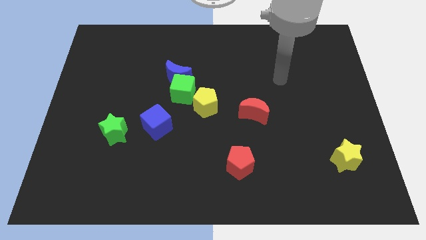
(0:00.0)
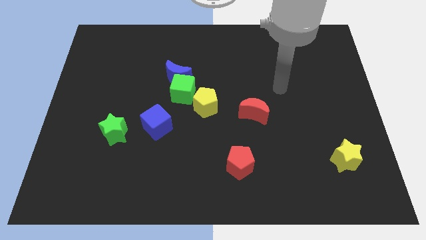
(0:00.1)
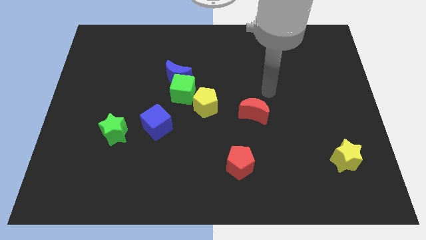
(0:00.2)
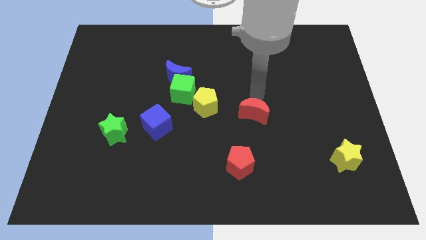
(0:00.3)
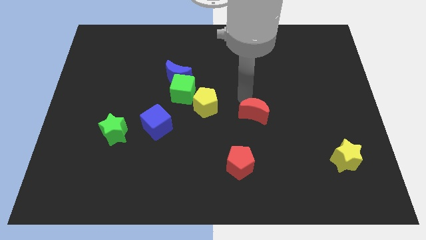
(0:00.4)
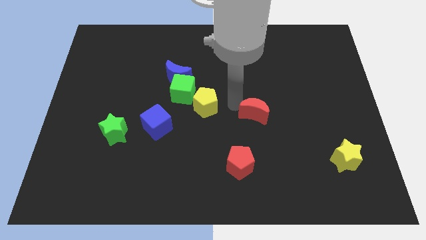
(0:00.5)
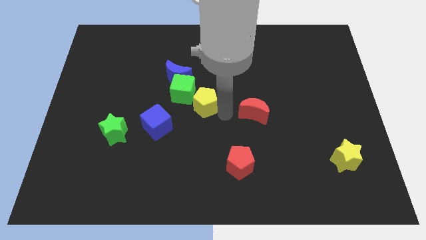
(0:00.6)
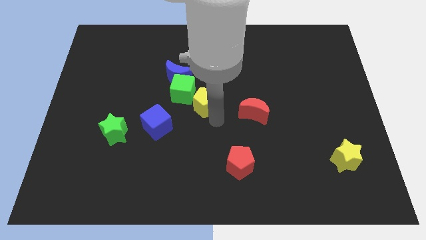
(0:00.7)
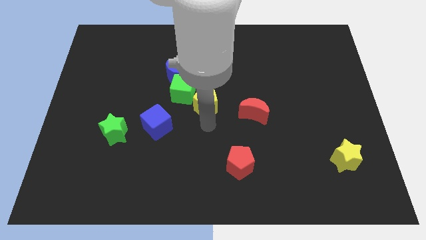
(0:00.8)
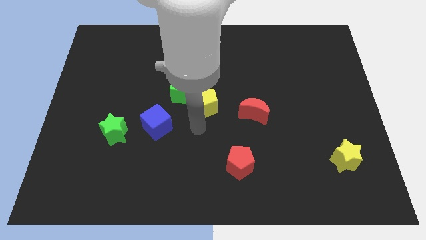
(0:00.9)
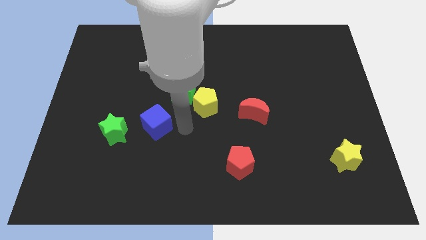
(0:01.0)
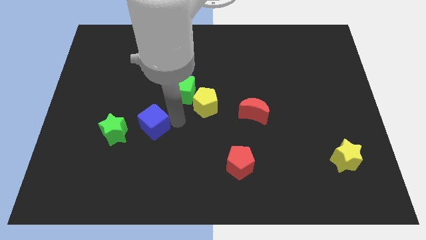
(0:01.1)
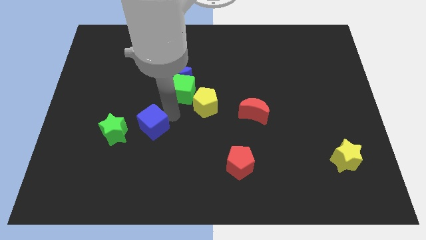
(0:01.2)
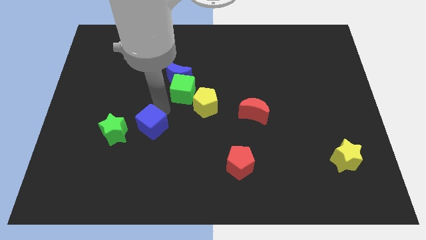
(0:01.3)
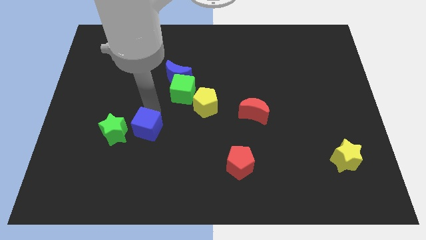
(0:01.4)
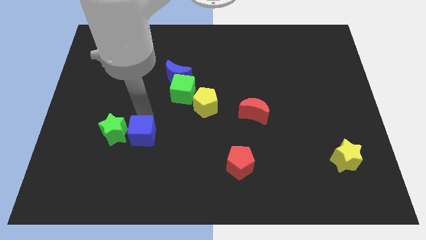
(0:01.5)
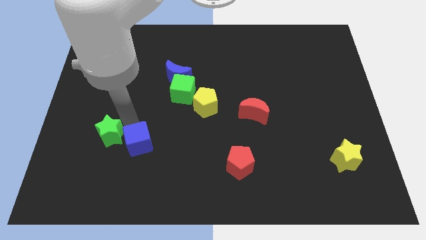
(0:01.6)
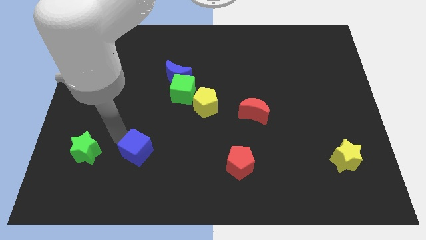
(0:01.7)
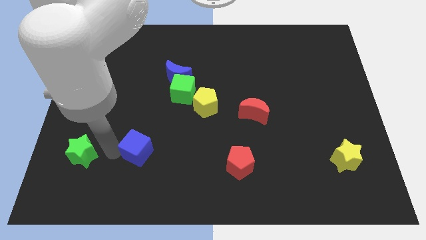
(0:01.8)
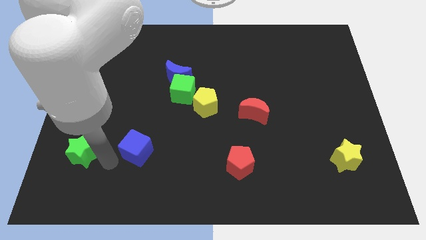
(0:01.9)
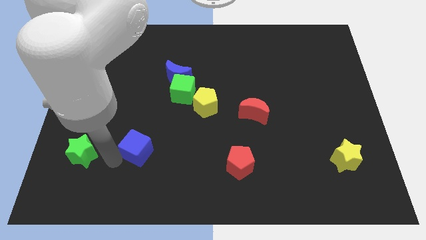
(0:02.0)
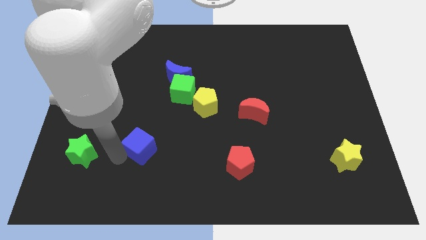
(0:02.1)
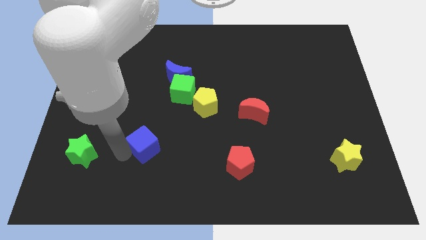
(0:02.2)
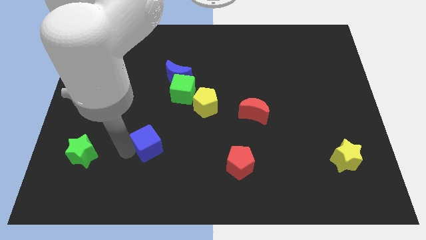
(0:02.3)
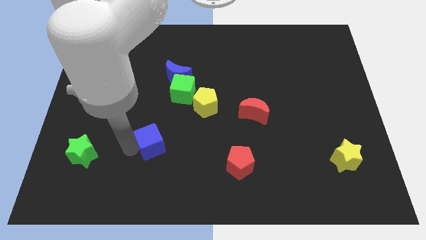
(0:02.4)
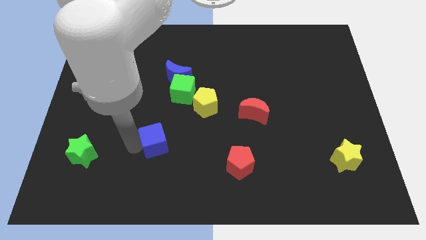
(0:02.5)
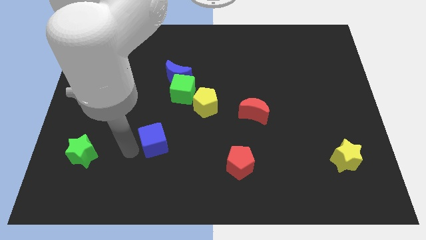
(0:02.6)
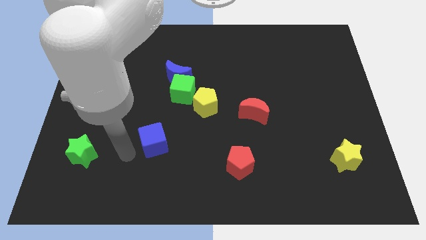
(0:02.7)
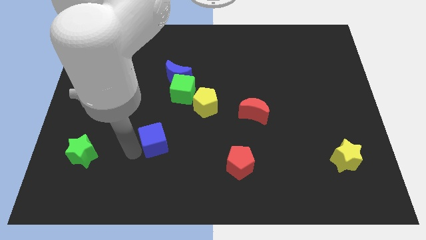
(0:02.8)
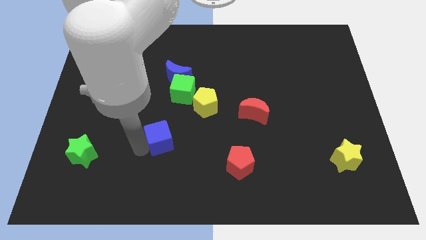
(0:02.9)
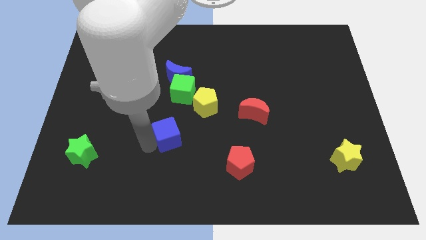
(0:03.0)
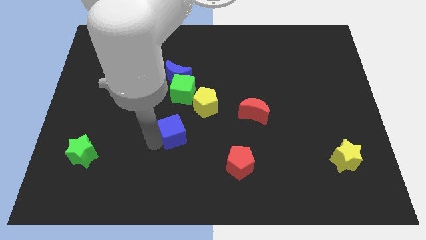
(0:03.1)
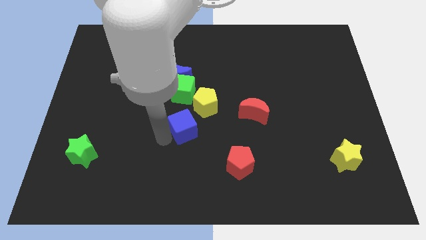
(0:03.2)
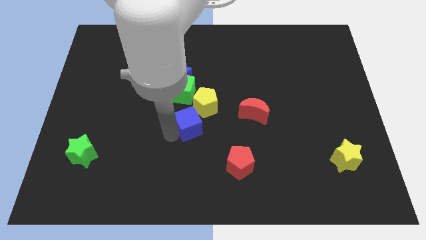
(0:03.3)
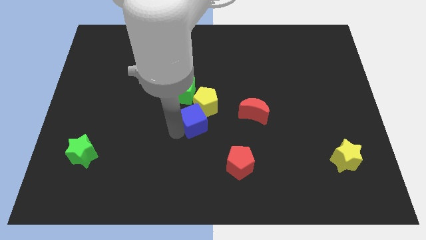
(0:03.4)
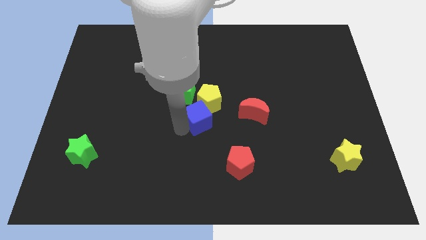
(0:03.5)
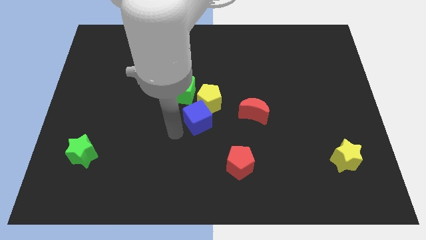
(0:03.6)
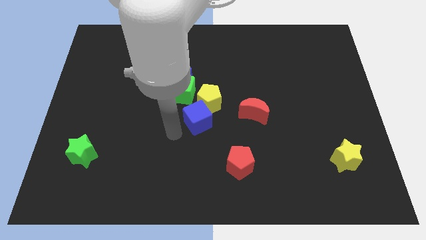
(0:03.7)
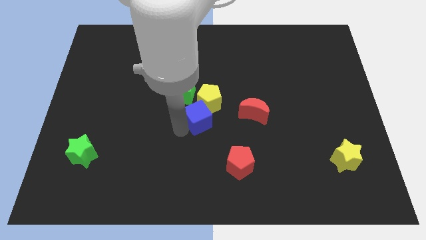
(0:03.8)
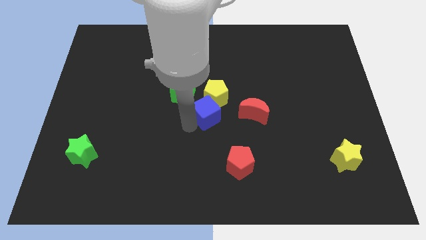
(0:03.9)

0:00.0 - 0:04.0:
slightly push the blue cube upwards and right

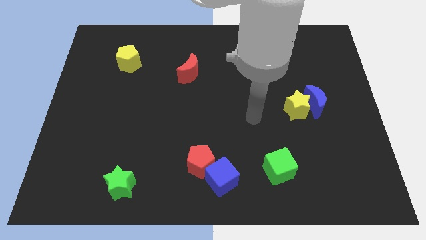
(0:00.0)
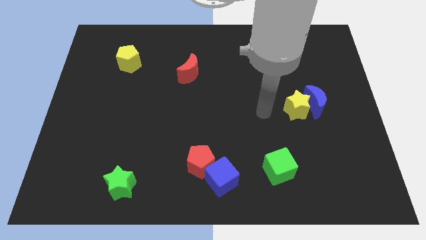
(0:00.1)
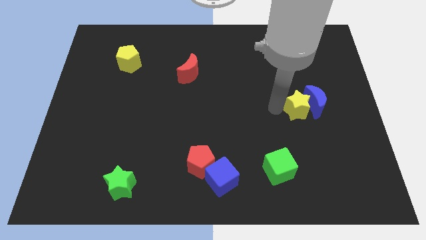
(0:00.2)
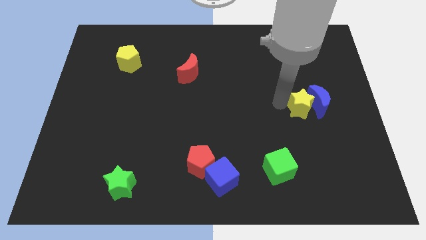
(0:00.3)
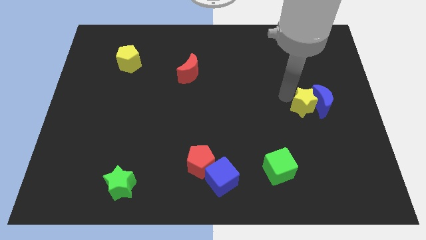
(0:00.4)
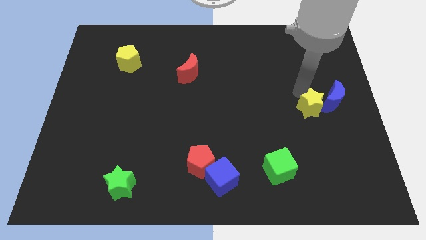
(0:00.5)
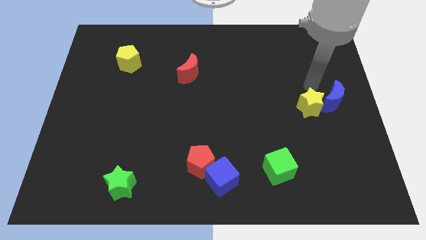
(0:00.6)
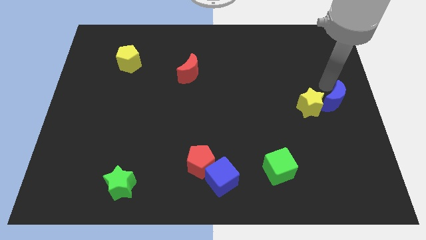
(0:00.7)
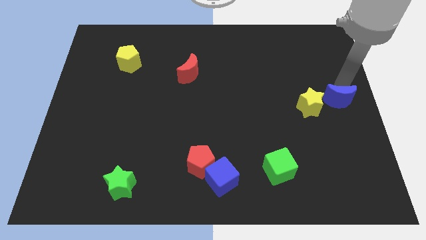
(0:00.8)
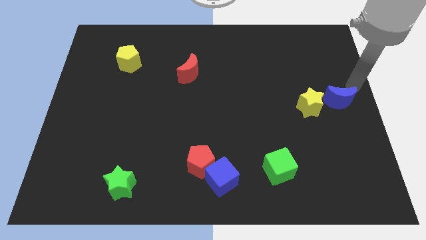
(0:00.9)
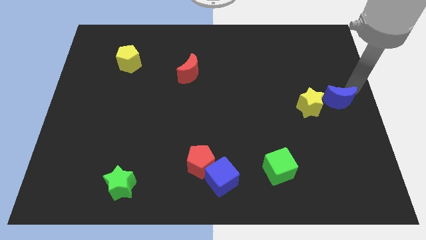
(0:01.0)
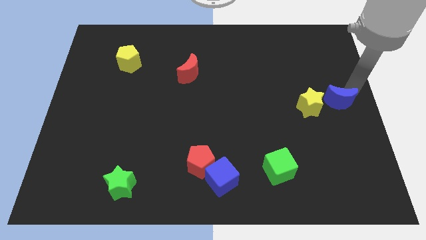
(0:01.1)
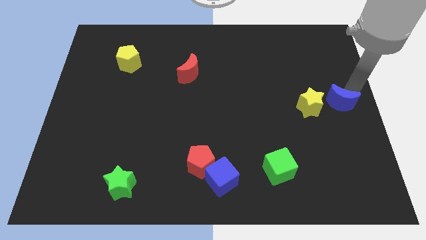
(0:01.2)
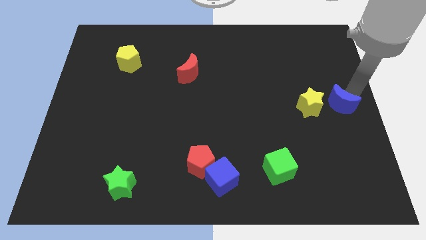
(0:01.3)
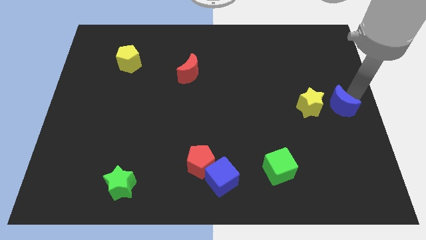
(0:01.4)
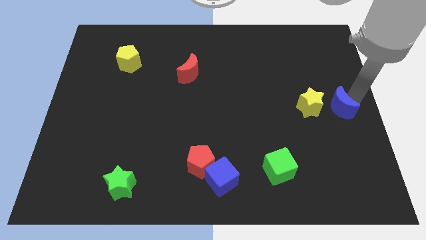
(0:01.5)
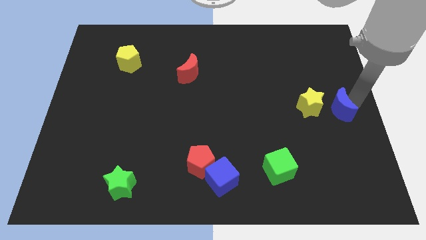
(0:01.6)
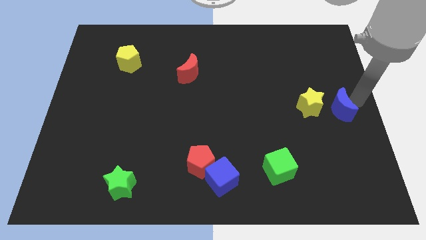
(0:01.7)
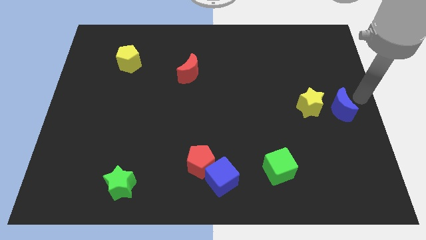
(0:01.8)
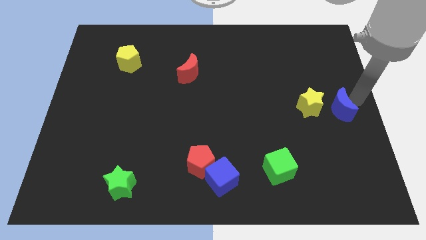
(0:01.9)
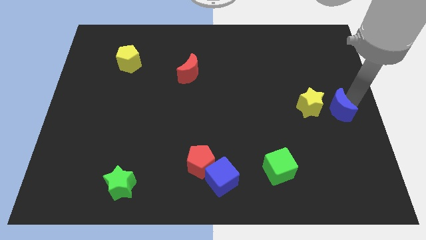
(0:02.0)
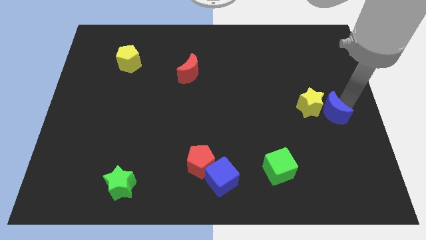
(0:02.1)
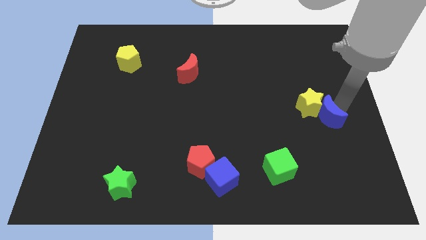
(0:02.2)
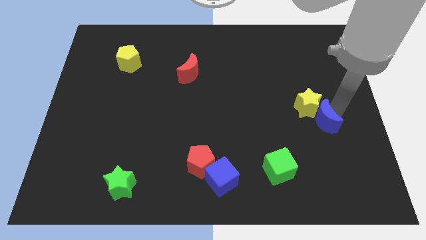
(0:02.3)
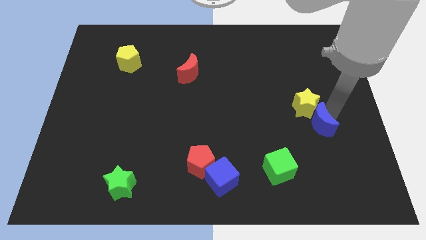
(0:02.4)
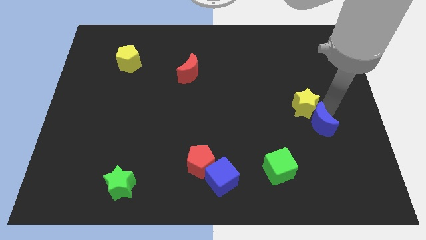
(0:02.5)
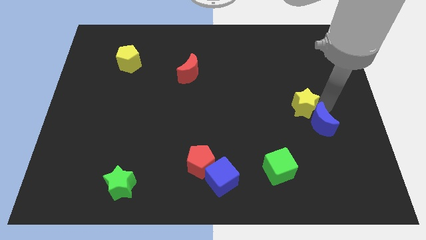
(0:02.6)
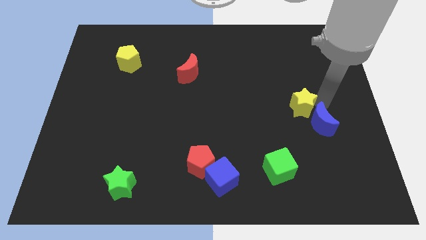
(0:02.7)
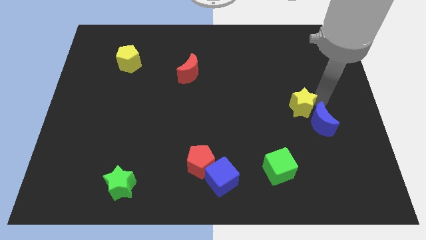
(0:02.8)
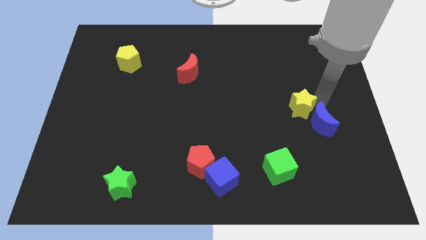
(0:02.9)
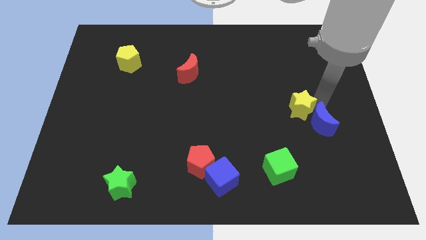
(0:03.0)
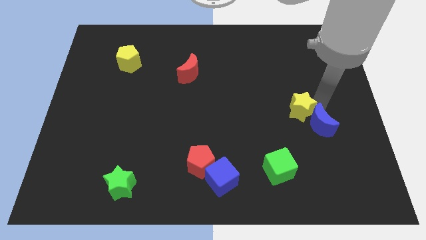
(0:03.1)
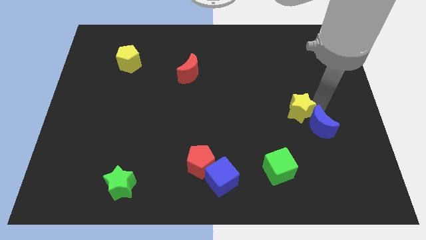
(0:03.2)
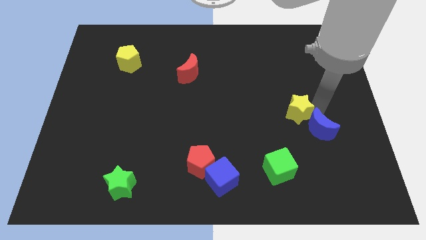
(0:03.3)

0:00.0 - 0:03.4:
move the blue moon down a bit

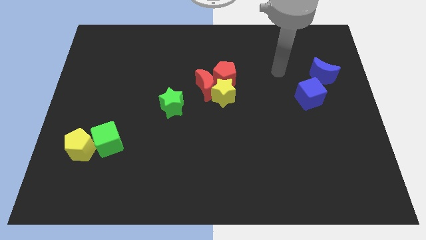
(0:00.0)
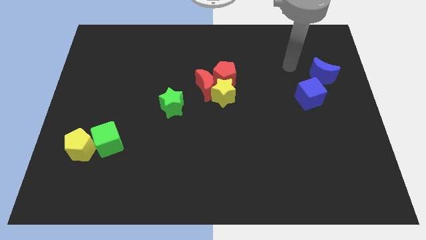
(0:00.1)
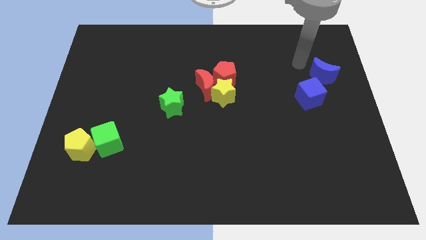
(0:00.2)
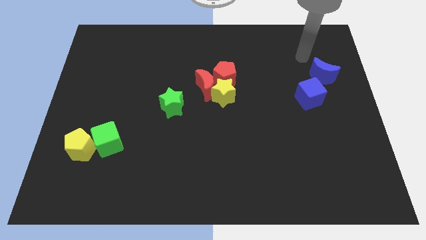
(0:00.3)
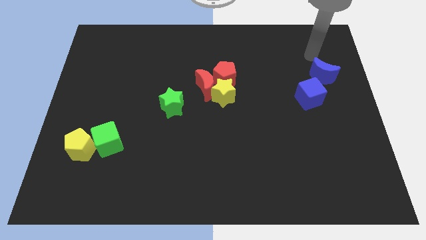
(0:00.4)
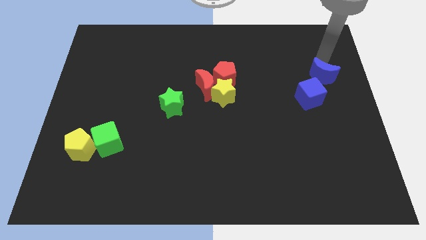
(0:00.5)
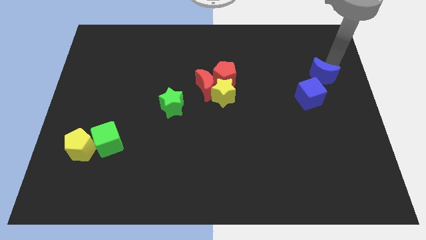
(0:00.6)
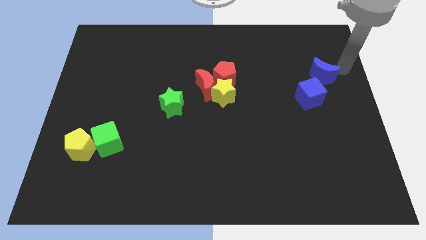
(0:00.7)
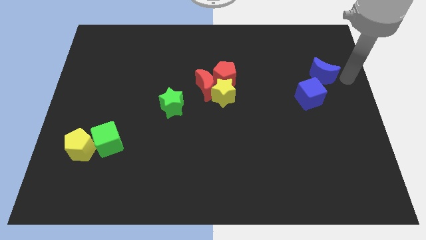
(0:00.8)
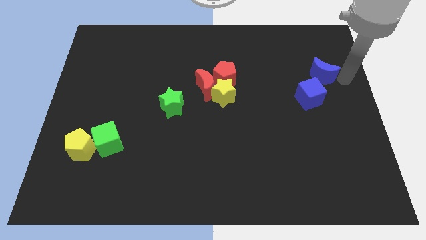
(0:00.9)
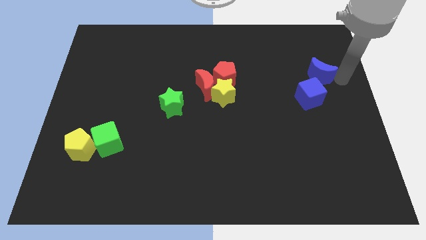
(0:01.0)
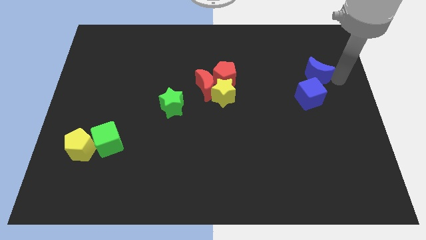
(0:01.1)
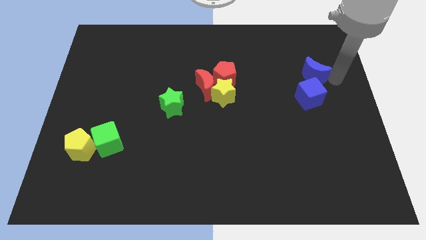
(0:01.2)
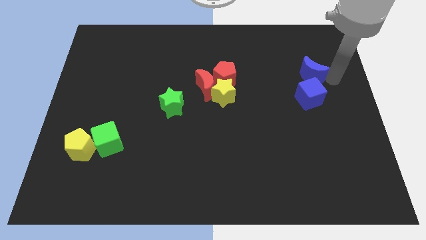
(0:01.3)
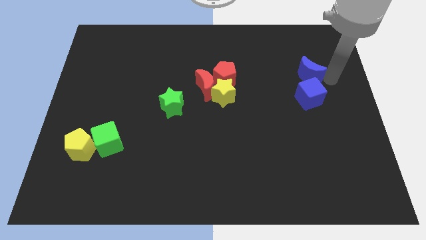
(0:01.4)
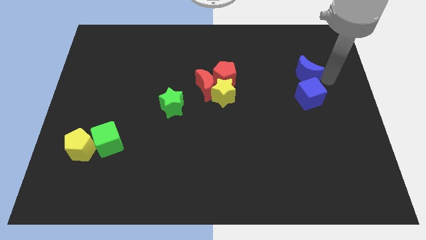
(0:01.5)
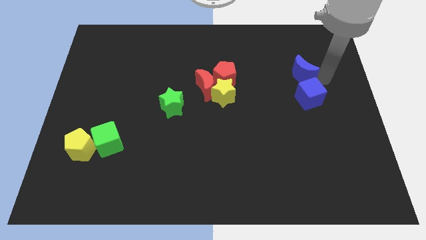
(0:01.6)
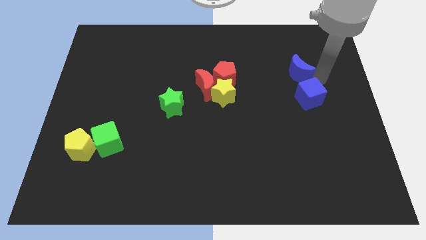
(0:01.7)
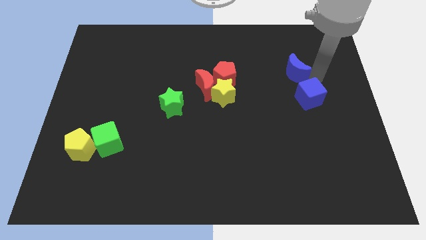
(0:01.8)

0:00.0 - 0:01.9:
move the blue moon left a little
